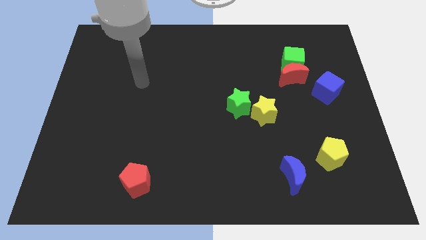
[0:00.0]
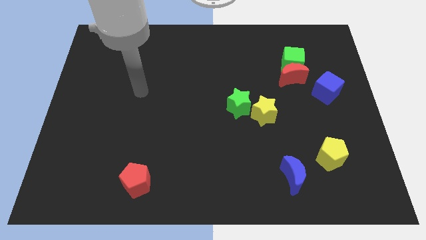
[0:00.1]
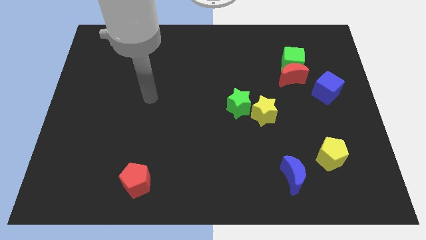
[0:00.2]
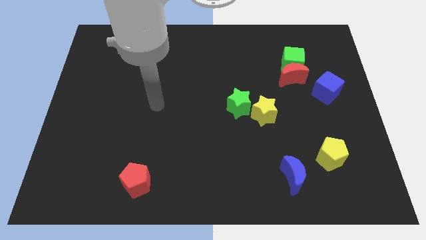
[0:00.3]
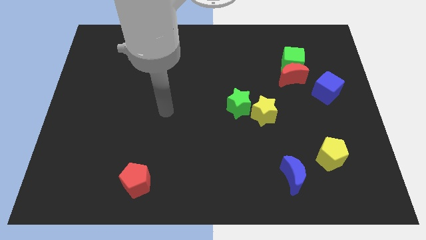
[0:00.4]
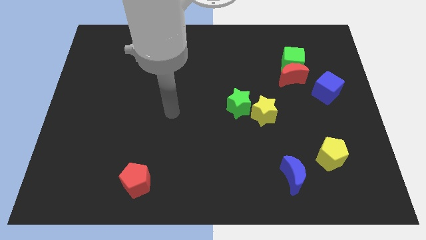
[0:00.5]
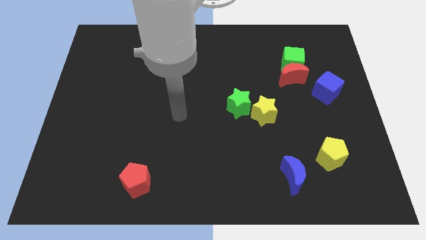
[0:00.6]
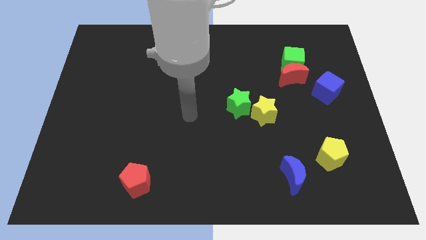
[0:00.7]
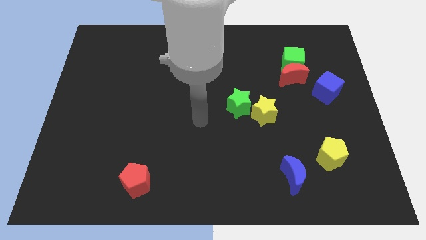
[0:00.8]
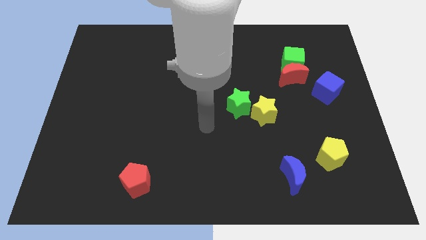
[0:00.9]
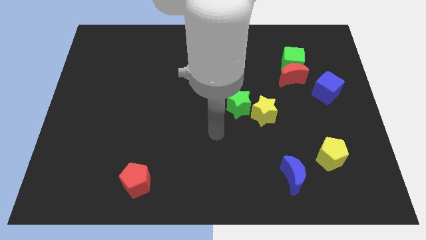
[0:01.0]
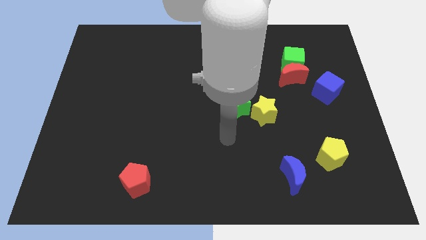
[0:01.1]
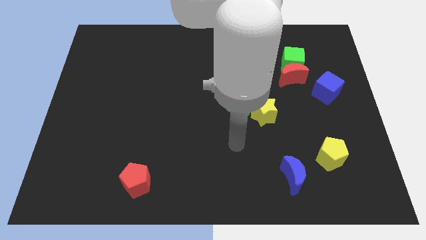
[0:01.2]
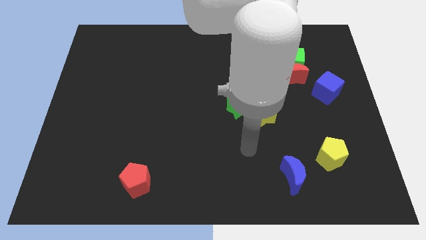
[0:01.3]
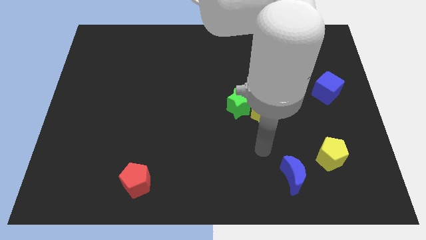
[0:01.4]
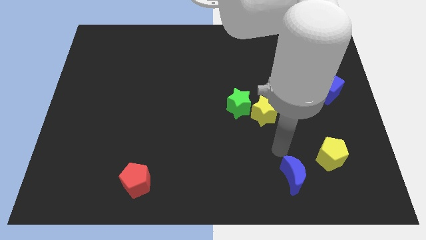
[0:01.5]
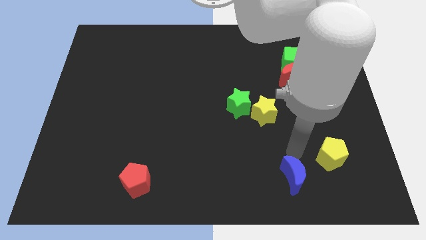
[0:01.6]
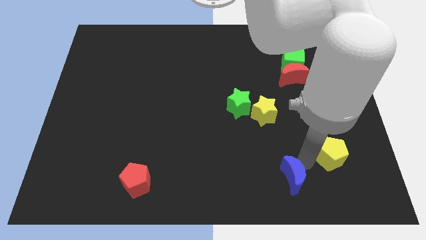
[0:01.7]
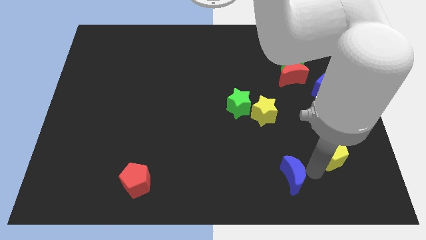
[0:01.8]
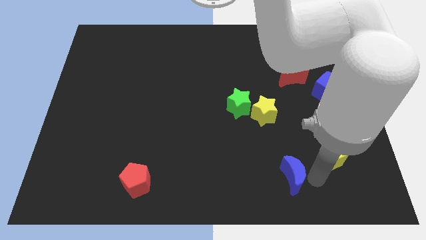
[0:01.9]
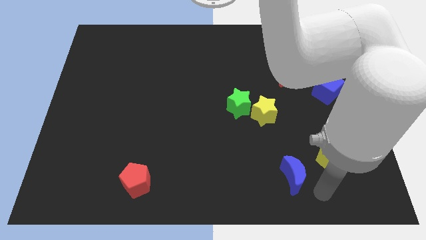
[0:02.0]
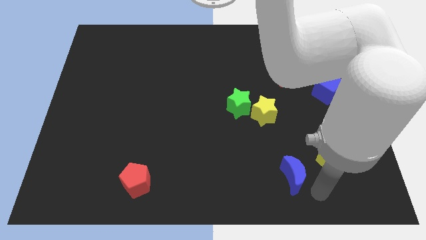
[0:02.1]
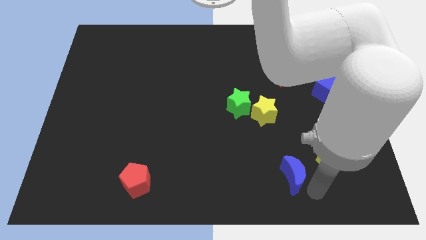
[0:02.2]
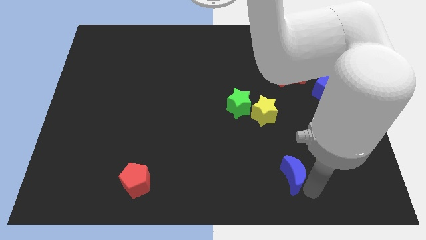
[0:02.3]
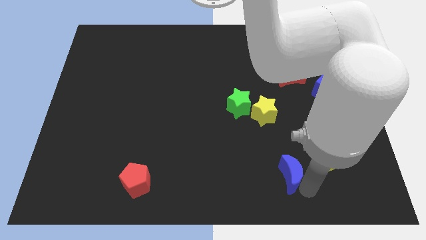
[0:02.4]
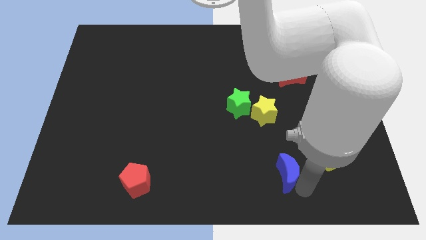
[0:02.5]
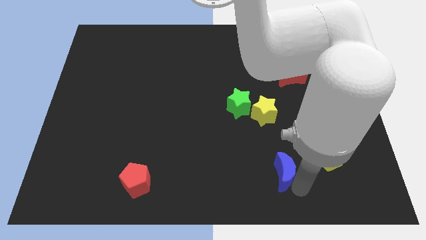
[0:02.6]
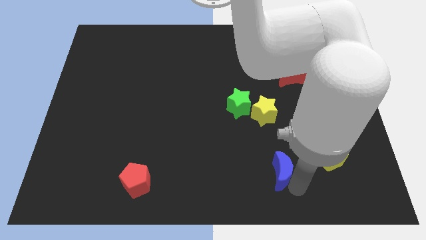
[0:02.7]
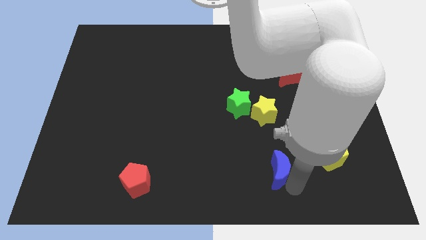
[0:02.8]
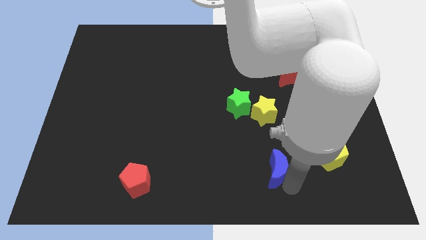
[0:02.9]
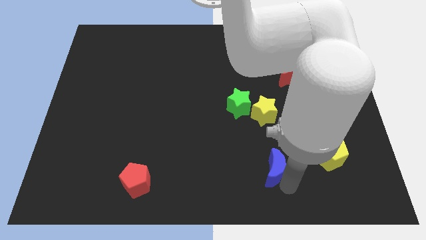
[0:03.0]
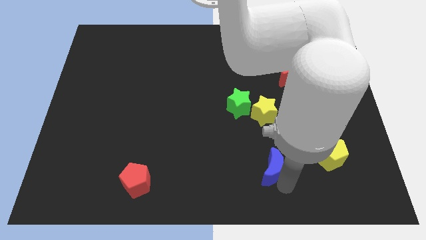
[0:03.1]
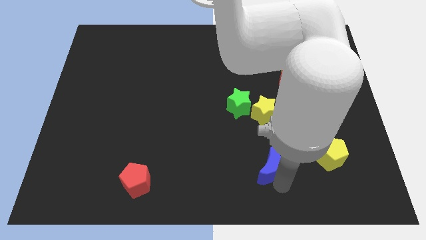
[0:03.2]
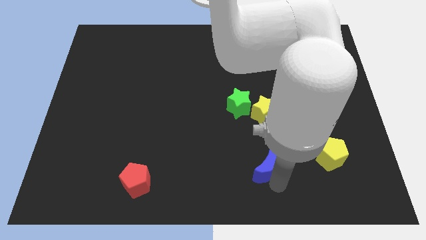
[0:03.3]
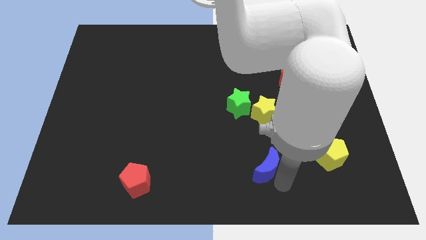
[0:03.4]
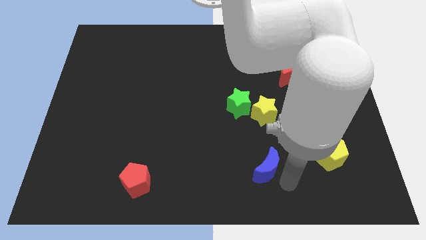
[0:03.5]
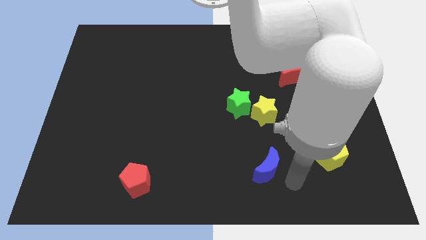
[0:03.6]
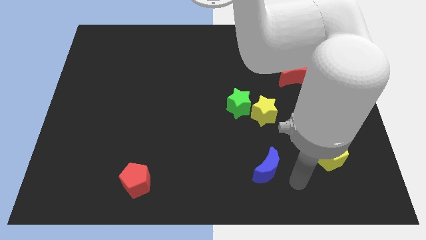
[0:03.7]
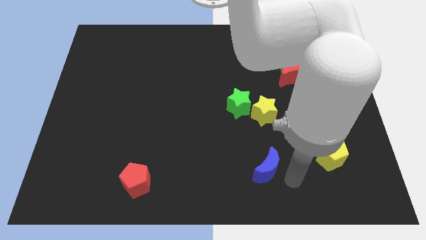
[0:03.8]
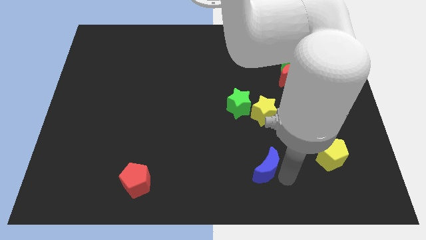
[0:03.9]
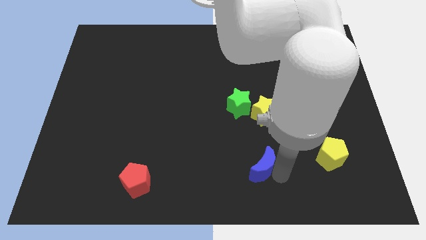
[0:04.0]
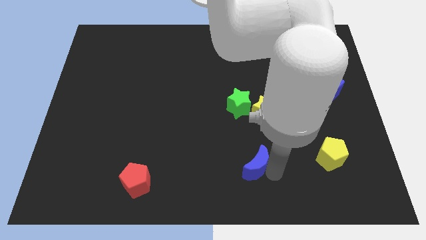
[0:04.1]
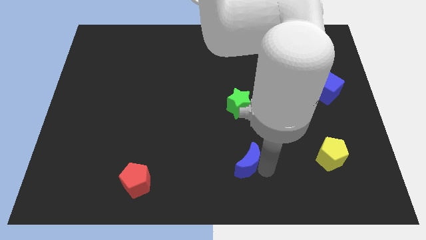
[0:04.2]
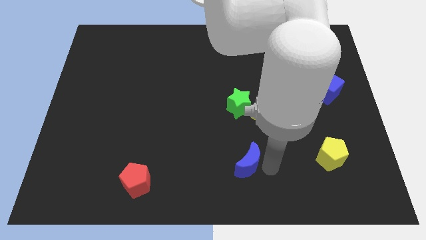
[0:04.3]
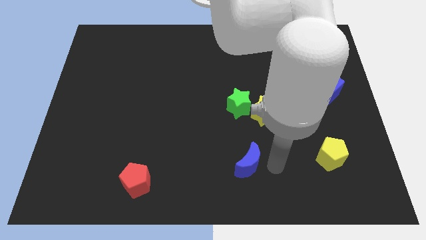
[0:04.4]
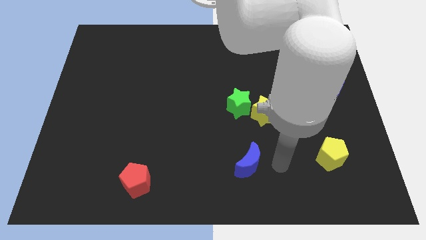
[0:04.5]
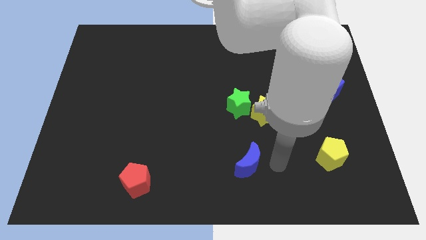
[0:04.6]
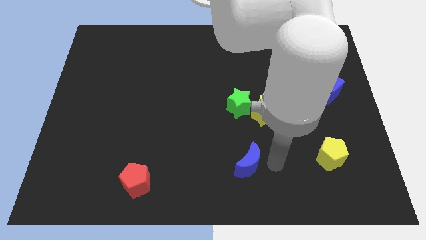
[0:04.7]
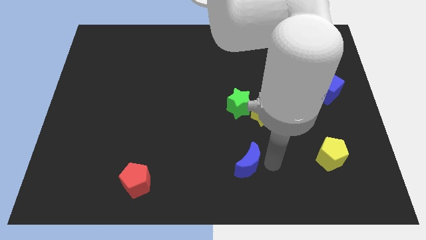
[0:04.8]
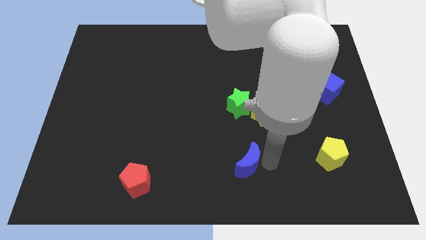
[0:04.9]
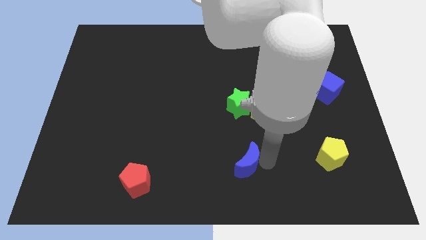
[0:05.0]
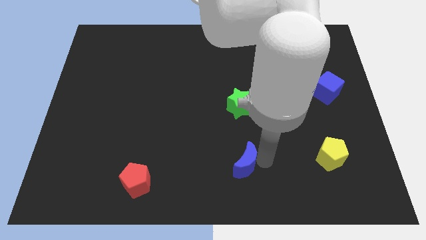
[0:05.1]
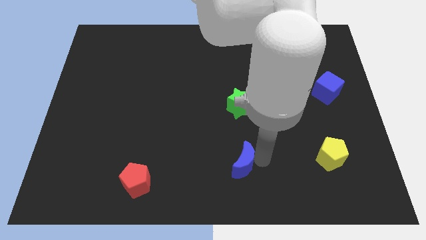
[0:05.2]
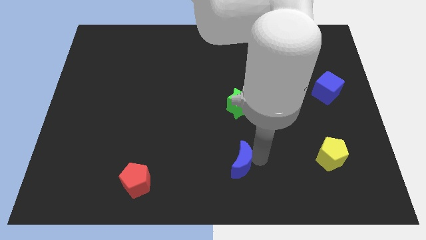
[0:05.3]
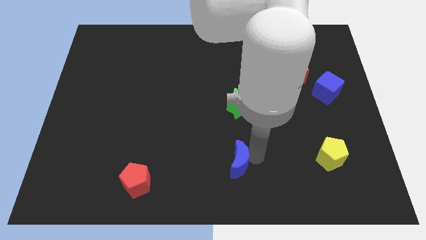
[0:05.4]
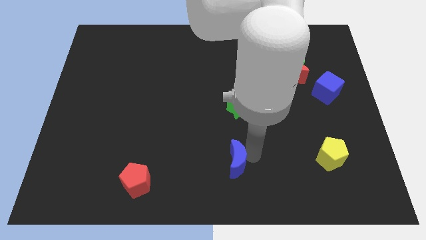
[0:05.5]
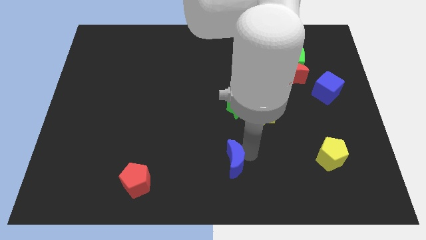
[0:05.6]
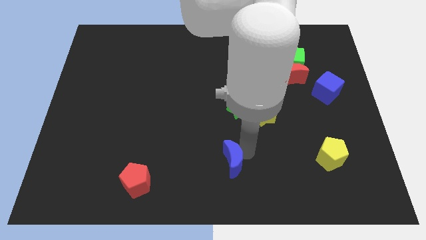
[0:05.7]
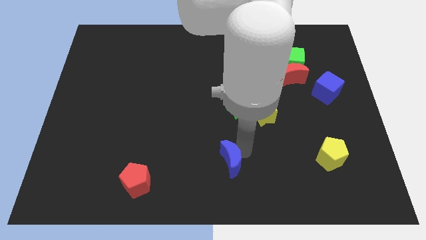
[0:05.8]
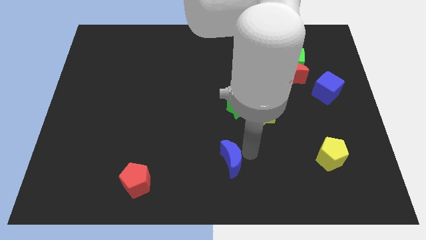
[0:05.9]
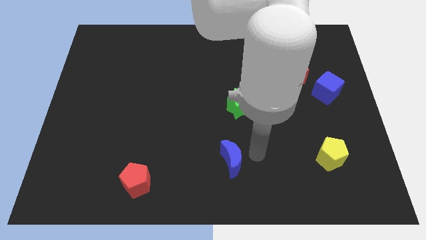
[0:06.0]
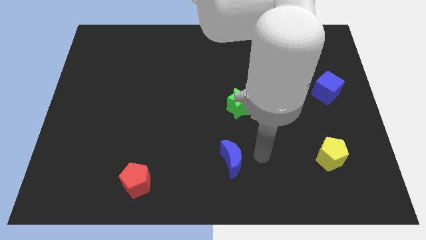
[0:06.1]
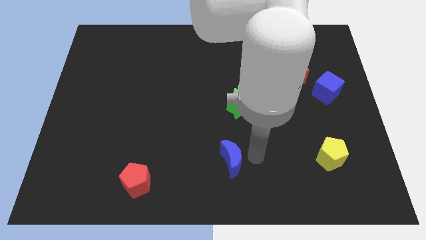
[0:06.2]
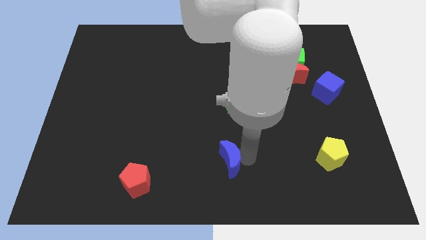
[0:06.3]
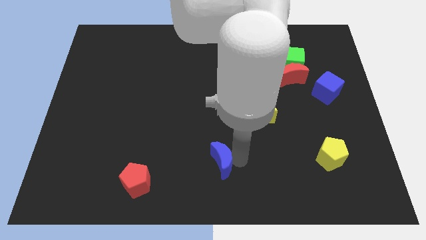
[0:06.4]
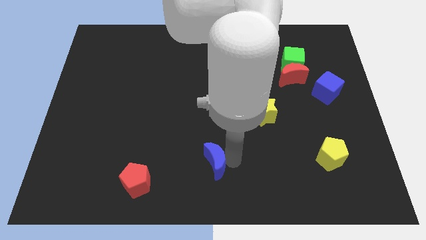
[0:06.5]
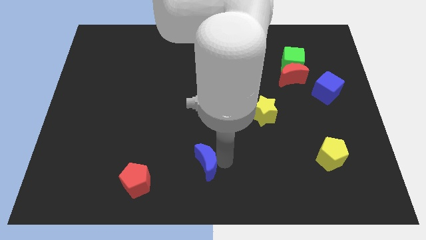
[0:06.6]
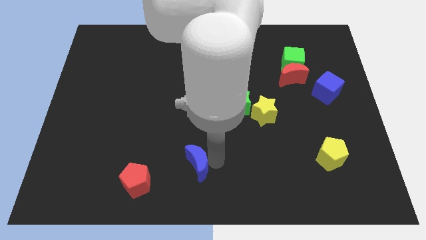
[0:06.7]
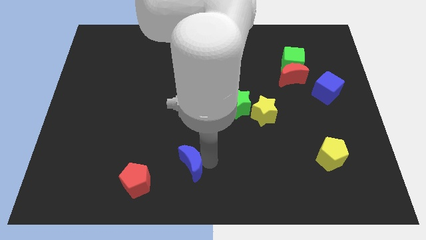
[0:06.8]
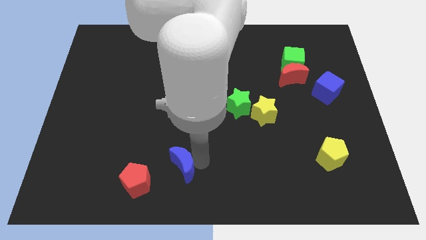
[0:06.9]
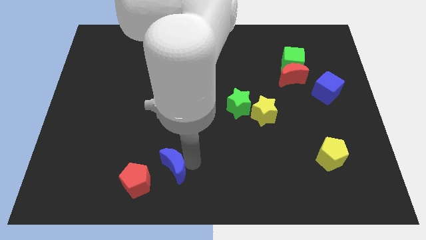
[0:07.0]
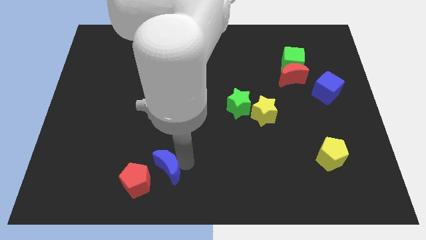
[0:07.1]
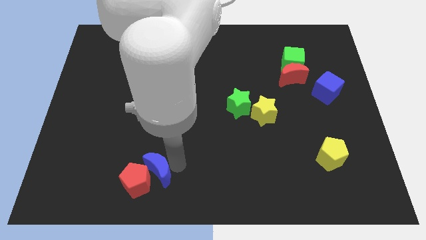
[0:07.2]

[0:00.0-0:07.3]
push the blue moon next to the red pentagon
